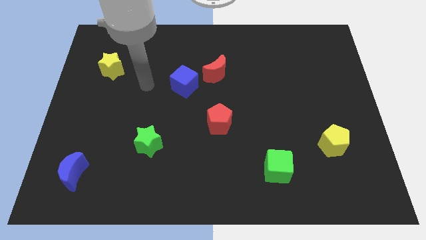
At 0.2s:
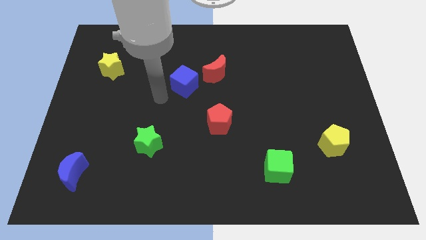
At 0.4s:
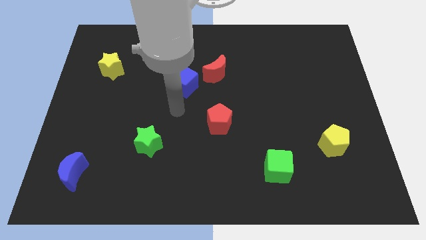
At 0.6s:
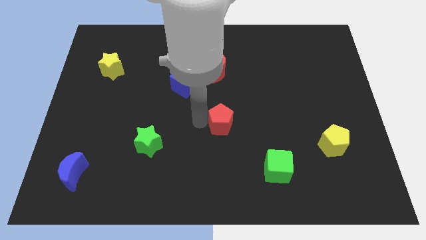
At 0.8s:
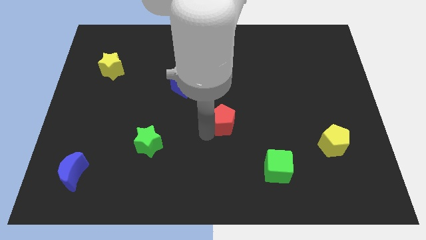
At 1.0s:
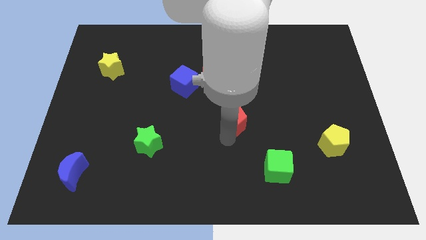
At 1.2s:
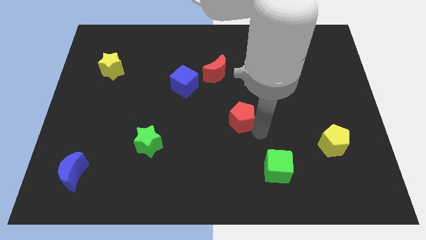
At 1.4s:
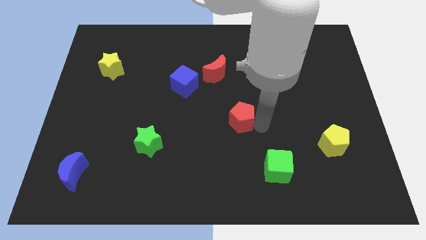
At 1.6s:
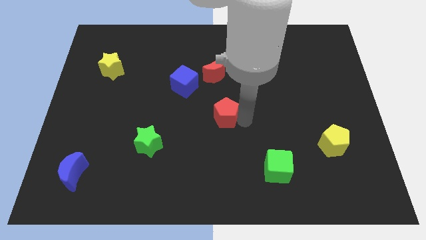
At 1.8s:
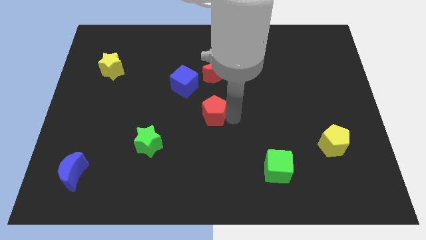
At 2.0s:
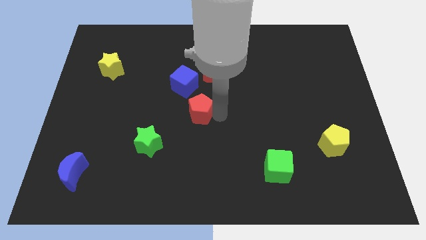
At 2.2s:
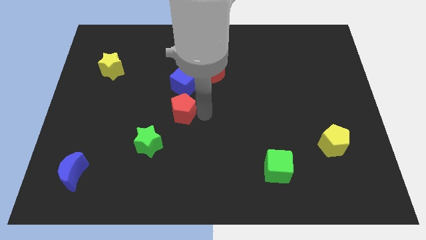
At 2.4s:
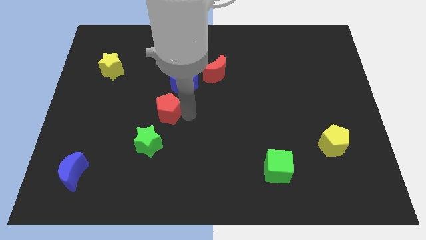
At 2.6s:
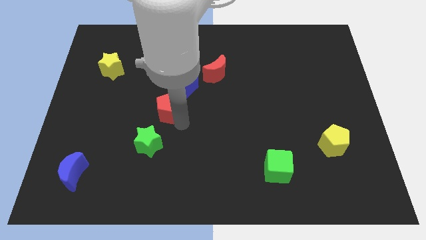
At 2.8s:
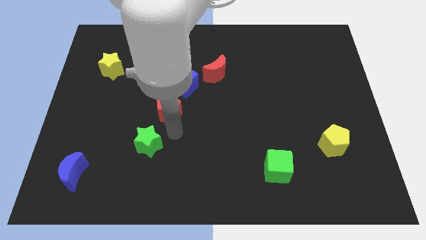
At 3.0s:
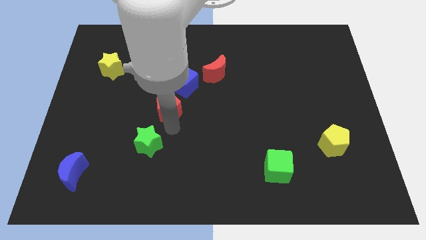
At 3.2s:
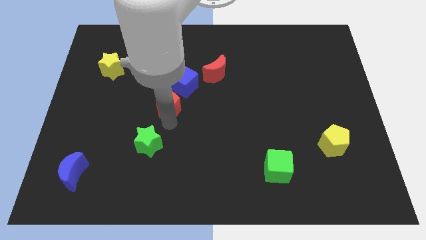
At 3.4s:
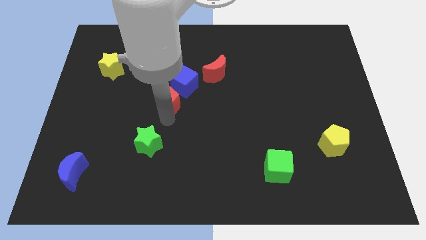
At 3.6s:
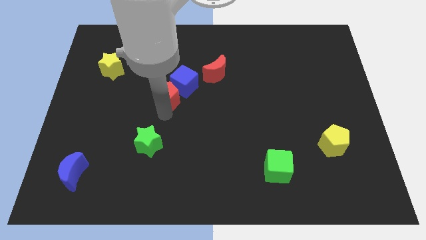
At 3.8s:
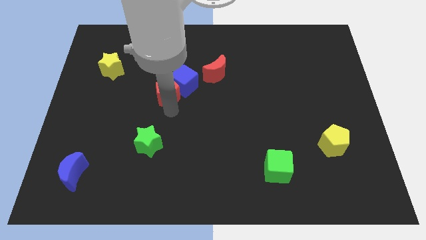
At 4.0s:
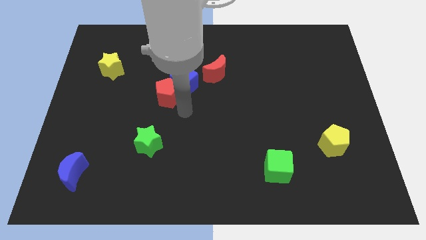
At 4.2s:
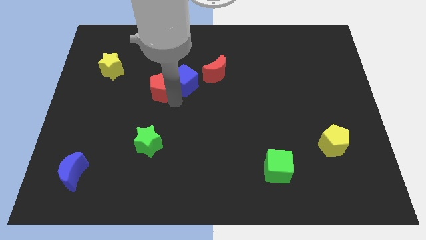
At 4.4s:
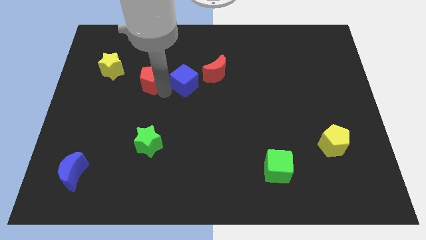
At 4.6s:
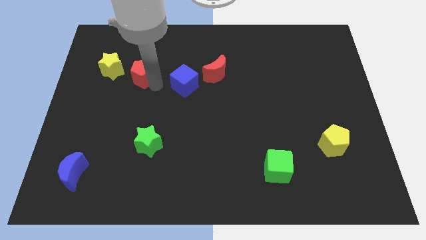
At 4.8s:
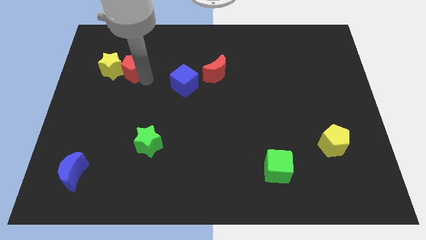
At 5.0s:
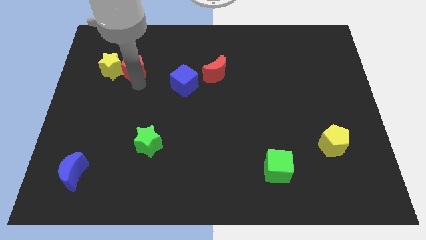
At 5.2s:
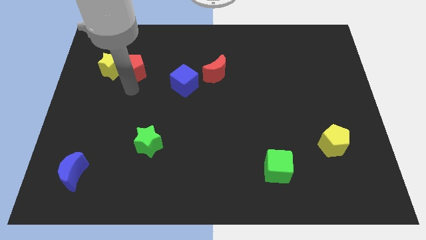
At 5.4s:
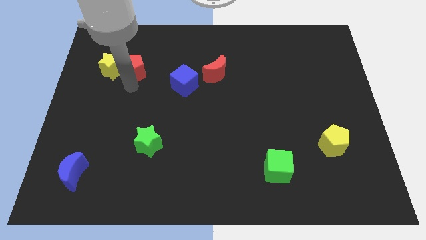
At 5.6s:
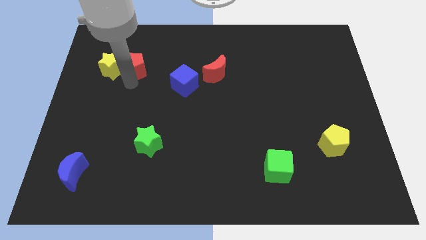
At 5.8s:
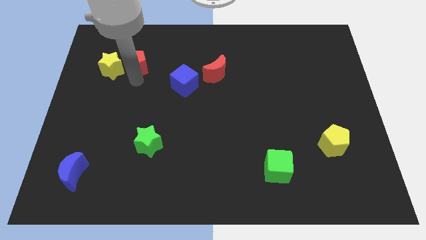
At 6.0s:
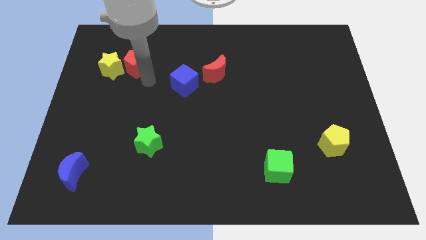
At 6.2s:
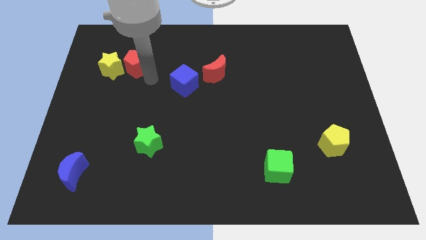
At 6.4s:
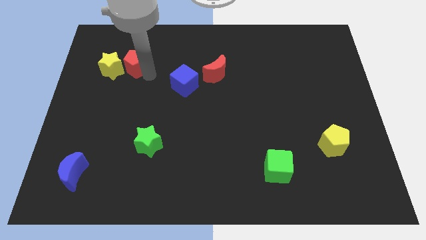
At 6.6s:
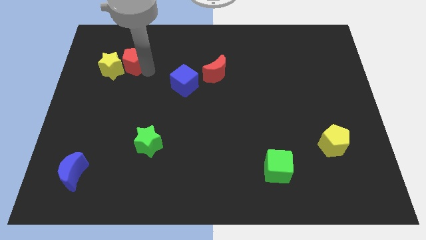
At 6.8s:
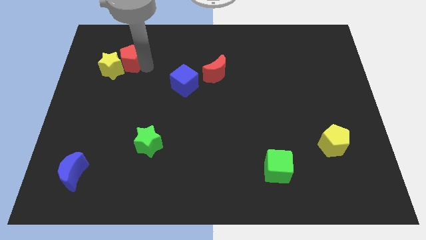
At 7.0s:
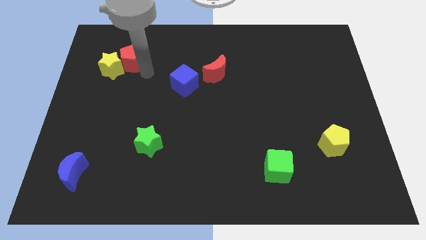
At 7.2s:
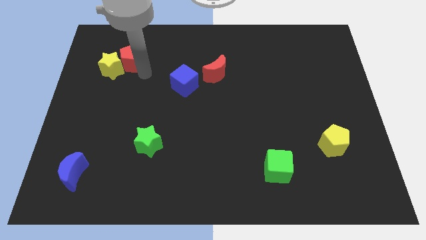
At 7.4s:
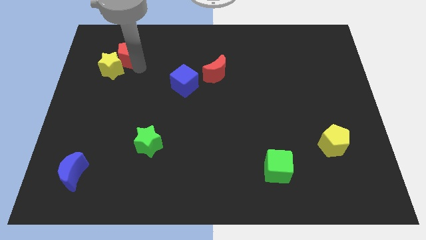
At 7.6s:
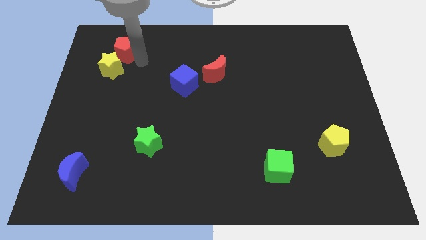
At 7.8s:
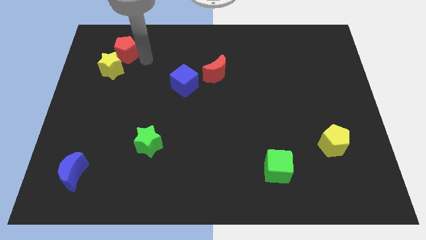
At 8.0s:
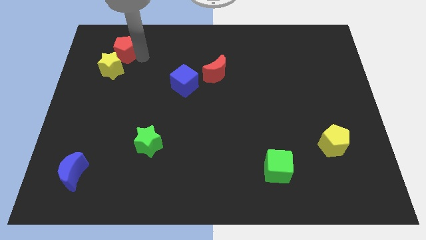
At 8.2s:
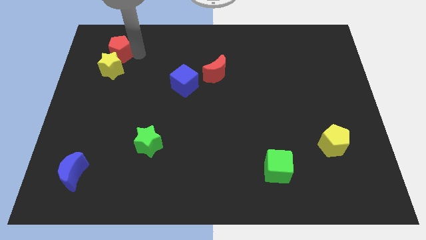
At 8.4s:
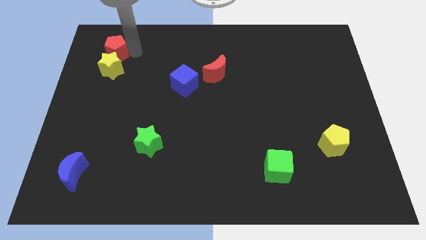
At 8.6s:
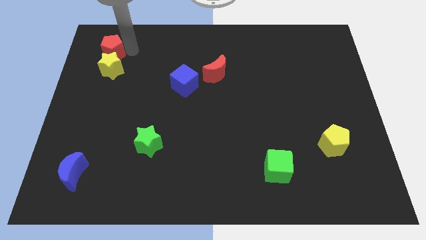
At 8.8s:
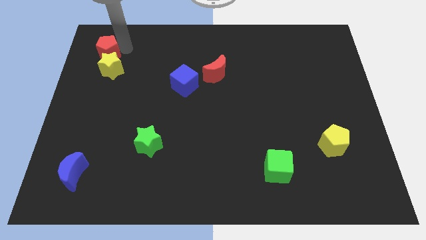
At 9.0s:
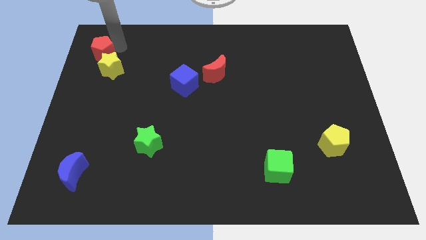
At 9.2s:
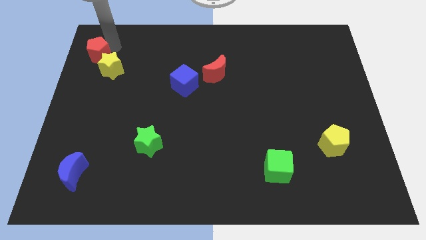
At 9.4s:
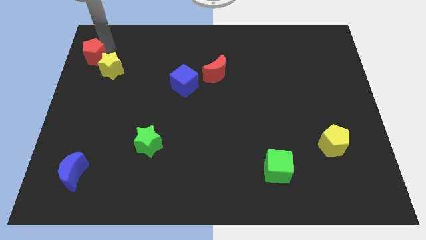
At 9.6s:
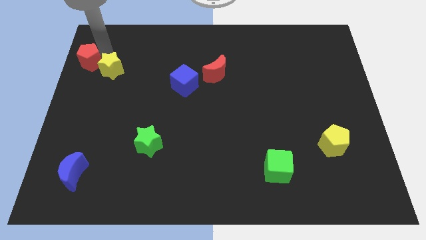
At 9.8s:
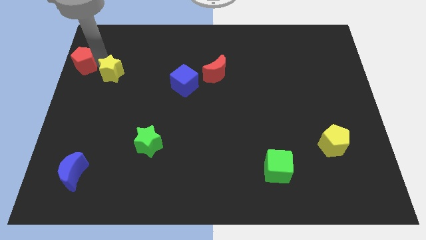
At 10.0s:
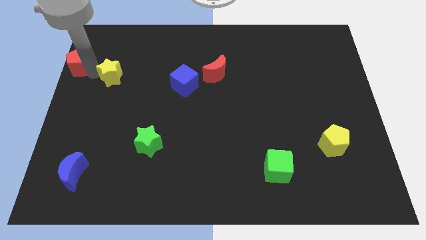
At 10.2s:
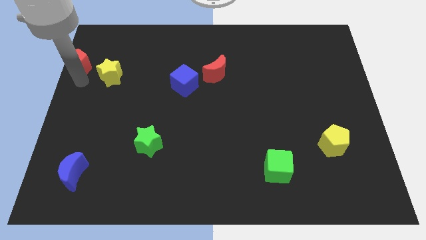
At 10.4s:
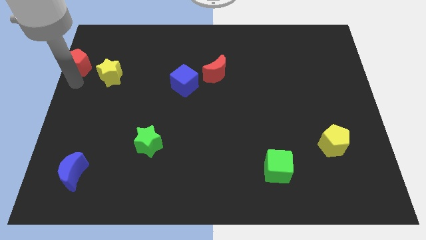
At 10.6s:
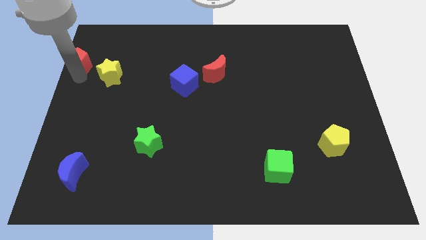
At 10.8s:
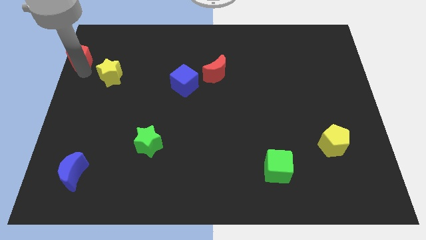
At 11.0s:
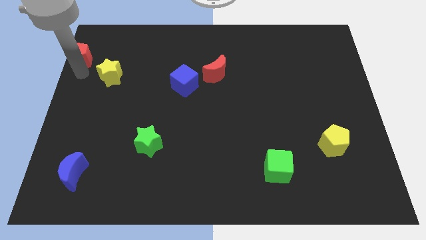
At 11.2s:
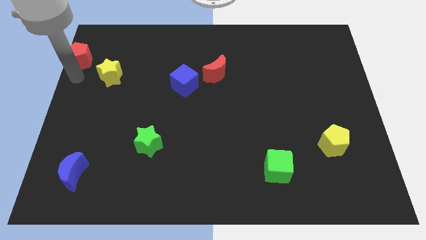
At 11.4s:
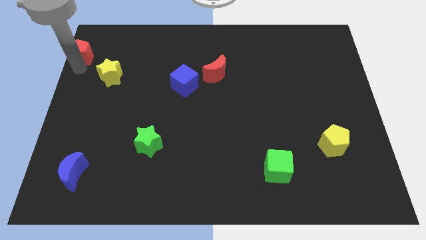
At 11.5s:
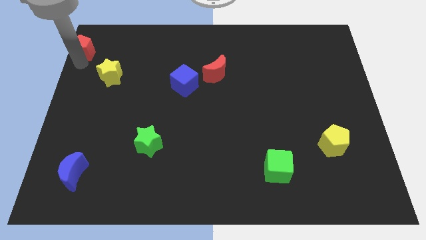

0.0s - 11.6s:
put the red pentagon to the top left

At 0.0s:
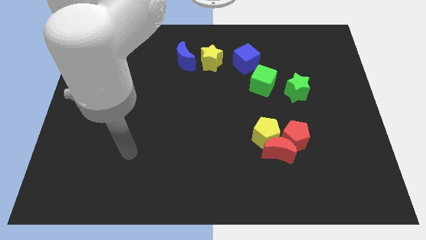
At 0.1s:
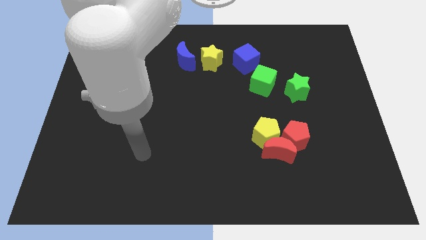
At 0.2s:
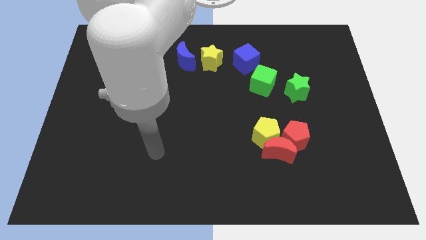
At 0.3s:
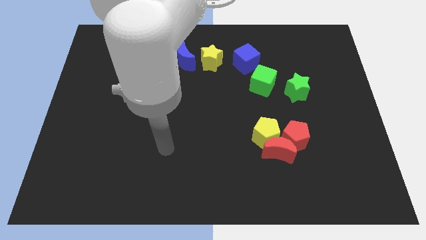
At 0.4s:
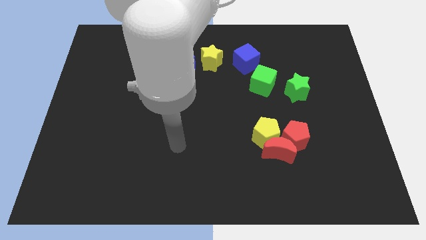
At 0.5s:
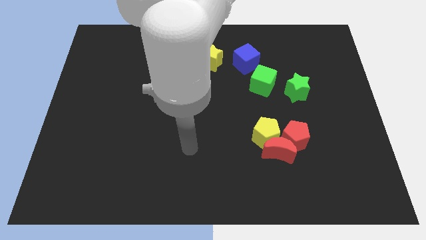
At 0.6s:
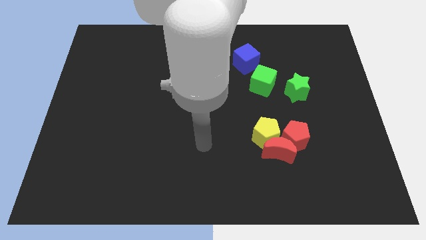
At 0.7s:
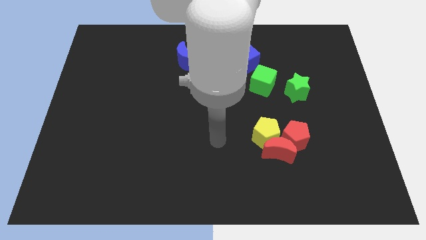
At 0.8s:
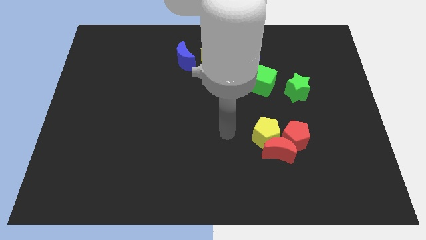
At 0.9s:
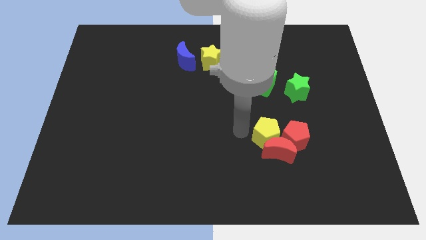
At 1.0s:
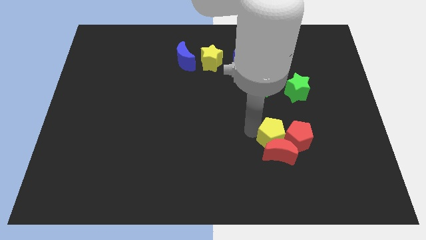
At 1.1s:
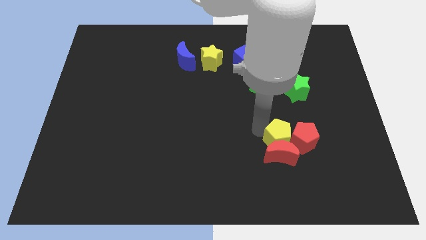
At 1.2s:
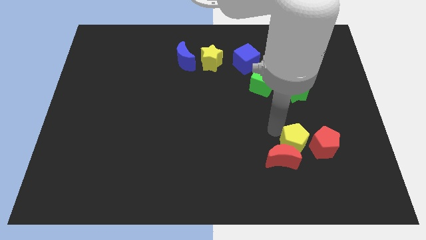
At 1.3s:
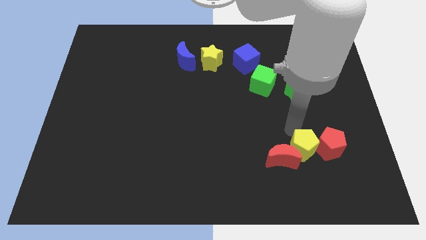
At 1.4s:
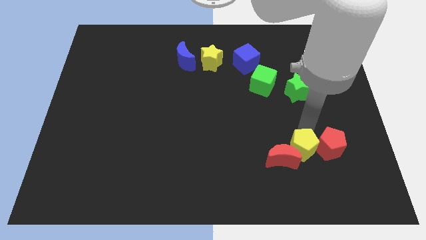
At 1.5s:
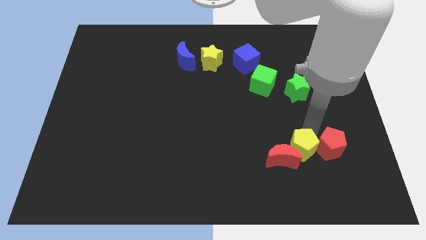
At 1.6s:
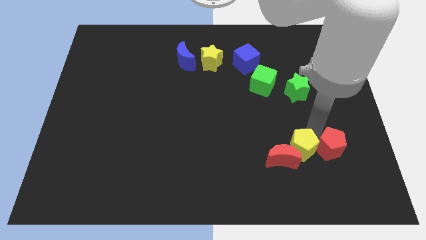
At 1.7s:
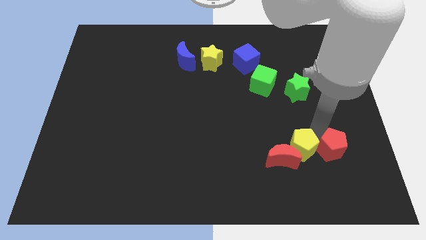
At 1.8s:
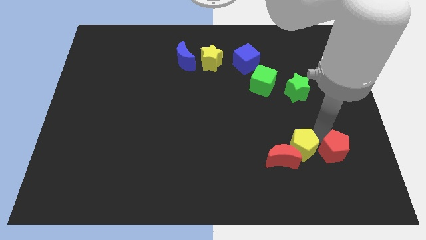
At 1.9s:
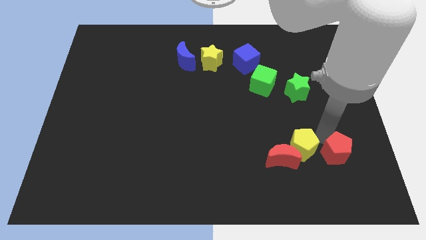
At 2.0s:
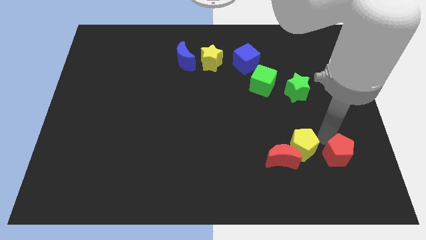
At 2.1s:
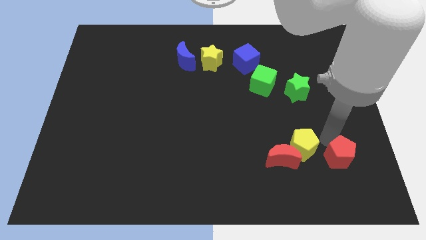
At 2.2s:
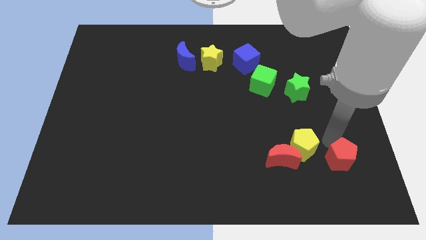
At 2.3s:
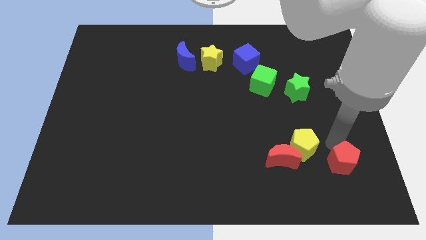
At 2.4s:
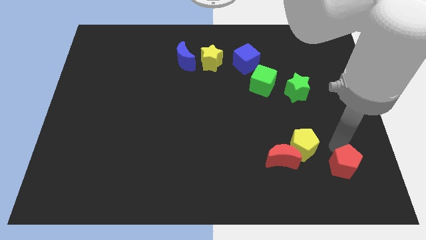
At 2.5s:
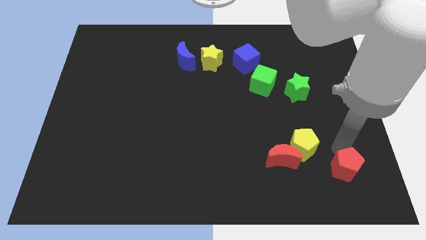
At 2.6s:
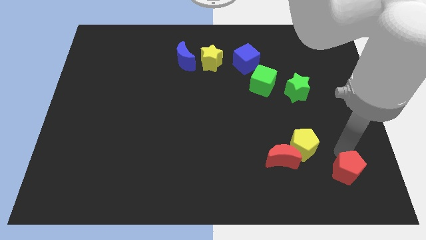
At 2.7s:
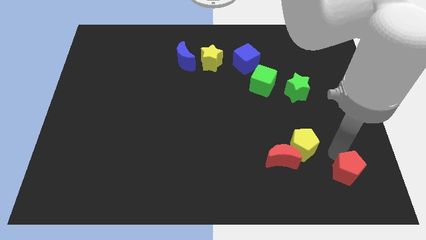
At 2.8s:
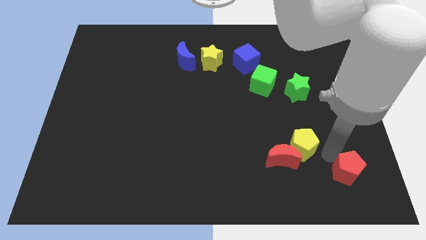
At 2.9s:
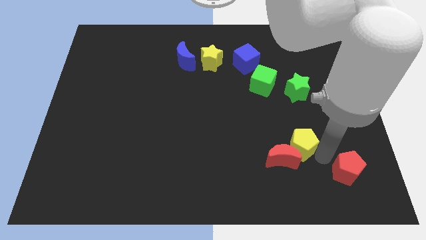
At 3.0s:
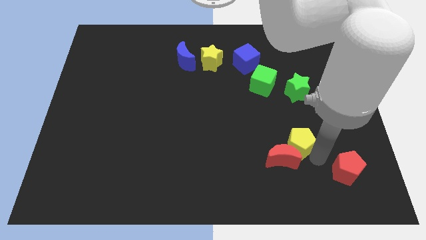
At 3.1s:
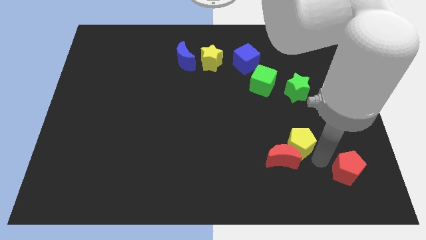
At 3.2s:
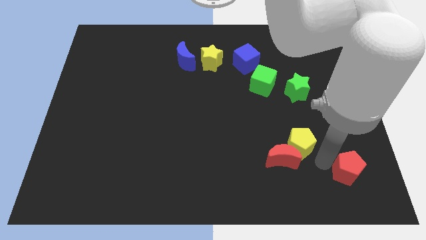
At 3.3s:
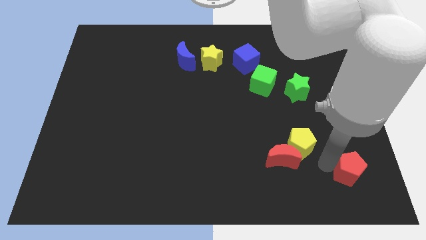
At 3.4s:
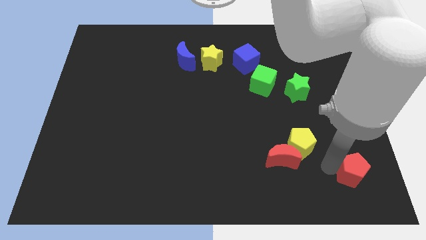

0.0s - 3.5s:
push the red pentagon to the bottom right of the board
